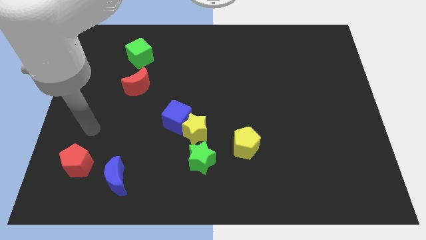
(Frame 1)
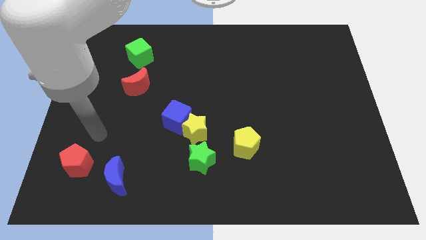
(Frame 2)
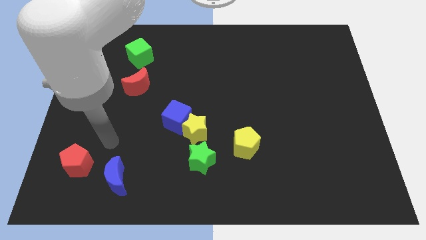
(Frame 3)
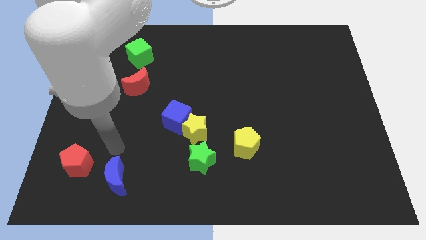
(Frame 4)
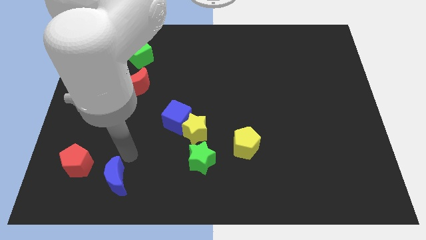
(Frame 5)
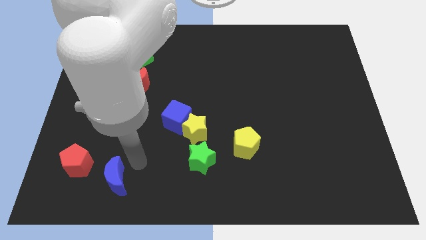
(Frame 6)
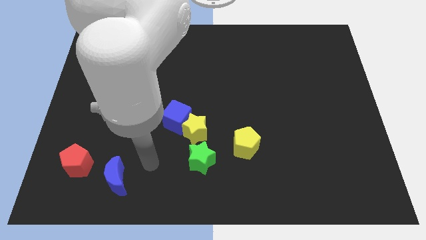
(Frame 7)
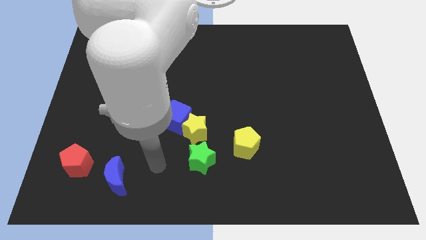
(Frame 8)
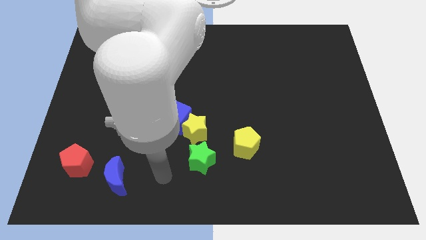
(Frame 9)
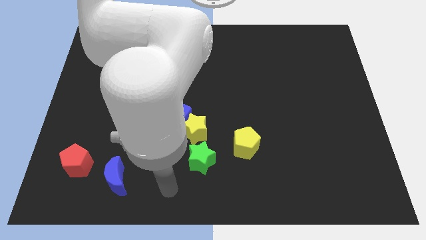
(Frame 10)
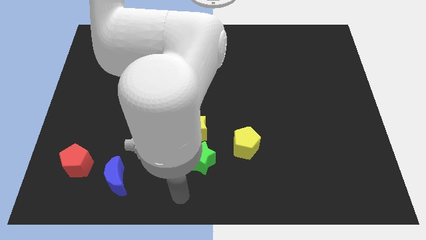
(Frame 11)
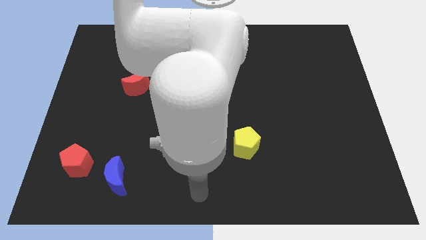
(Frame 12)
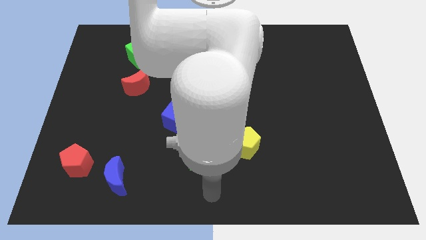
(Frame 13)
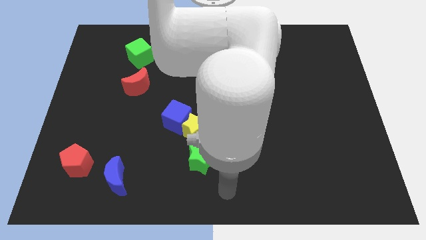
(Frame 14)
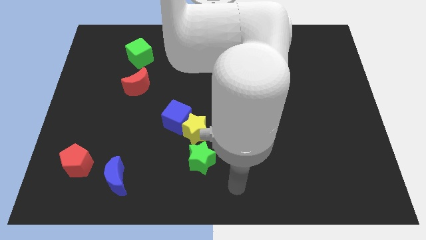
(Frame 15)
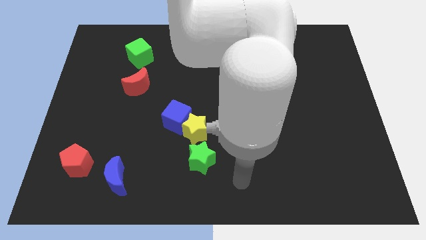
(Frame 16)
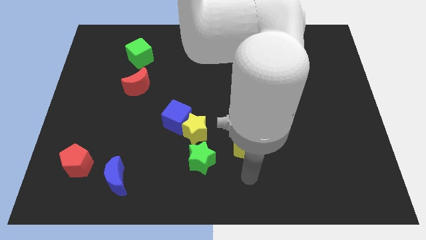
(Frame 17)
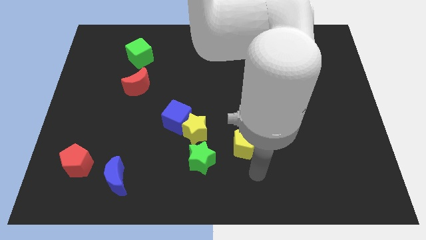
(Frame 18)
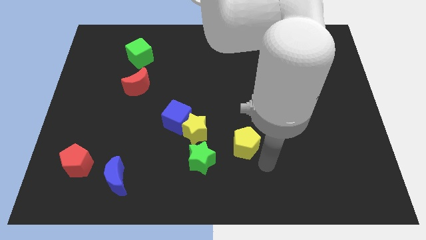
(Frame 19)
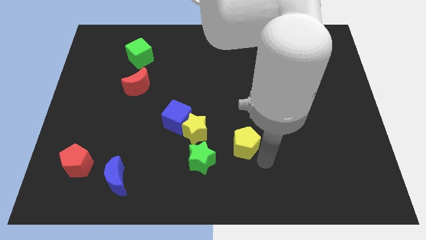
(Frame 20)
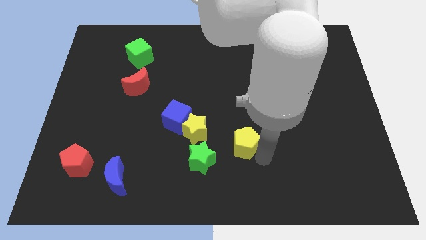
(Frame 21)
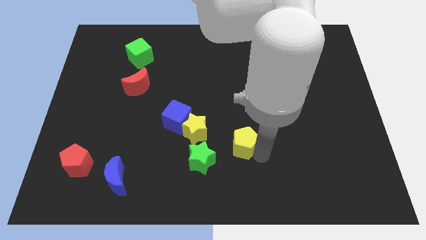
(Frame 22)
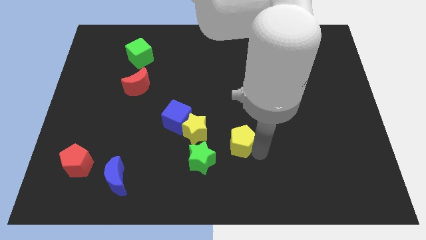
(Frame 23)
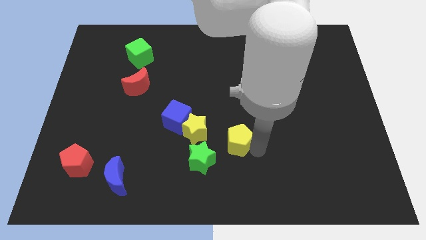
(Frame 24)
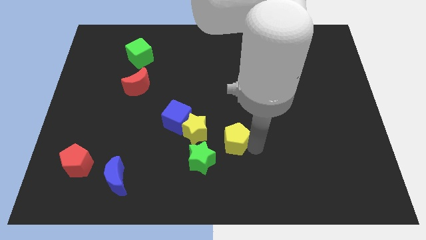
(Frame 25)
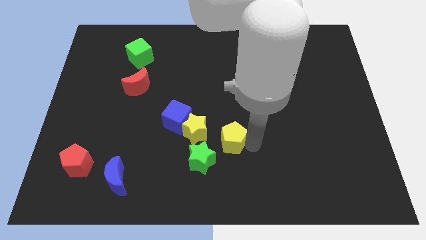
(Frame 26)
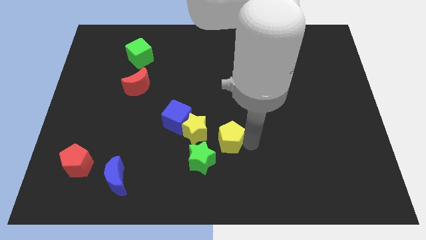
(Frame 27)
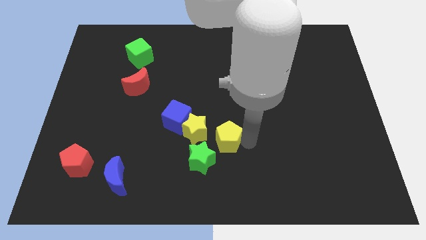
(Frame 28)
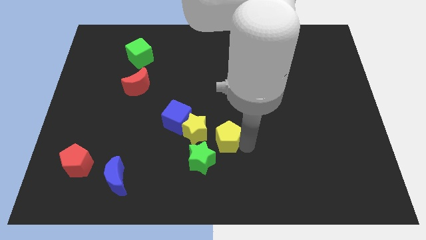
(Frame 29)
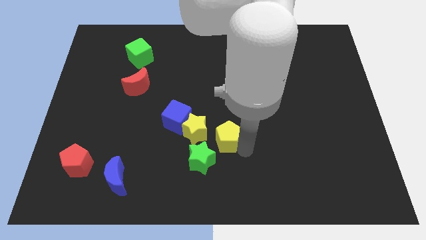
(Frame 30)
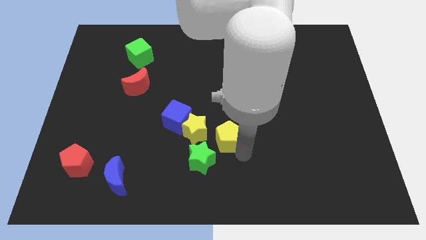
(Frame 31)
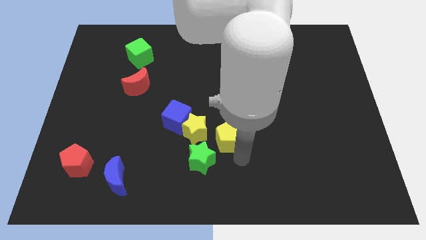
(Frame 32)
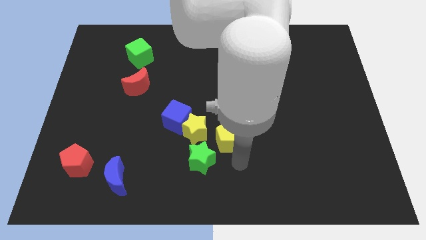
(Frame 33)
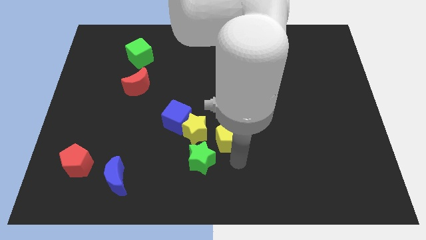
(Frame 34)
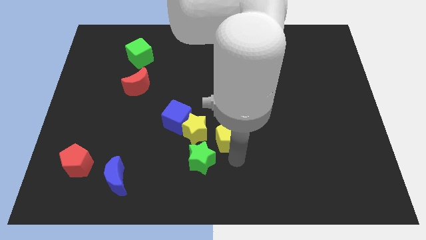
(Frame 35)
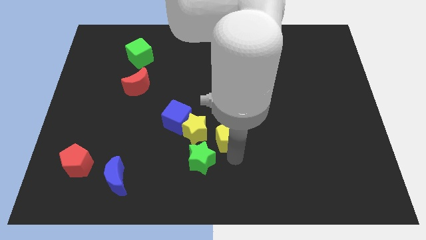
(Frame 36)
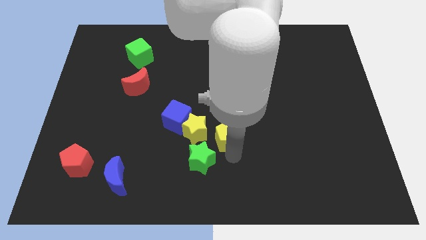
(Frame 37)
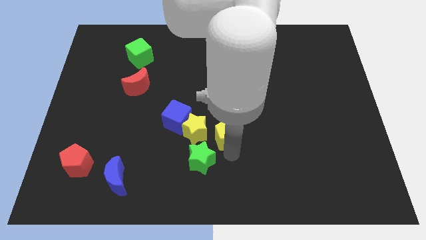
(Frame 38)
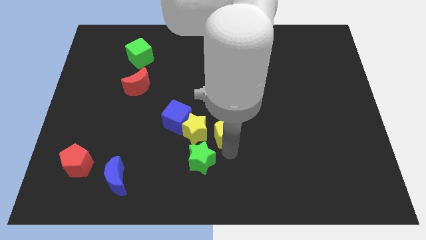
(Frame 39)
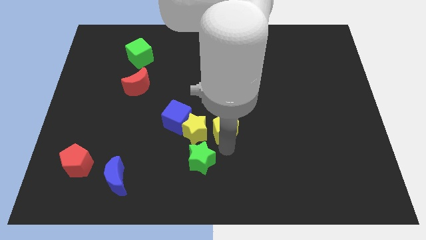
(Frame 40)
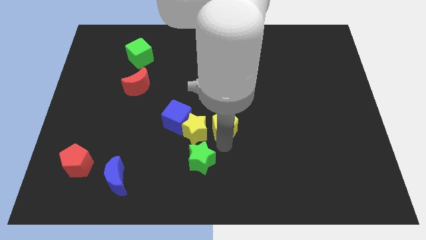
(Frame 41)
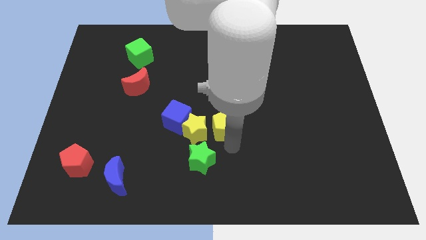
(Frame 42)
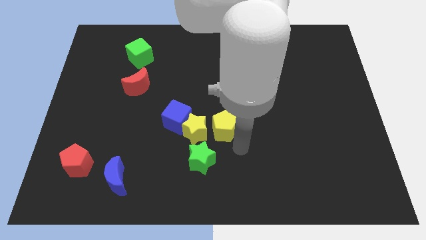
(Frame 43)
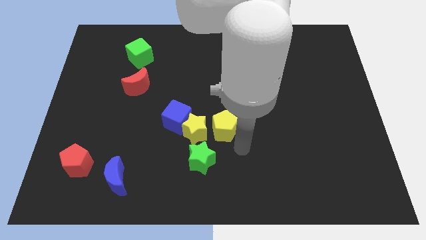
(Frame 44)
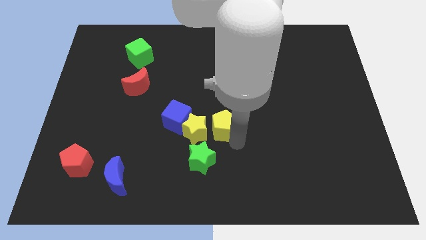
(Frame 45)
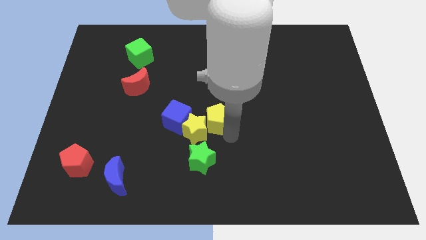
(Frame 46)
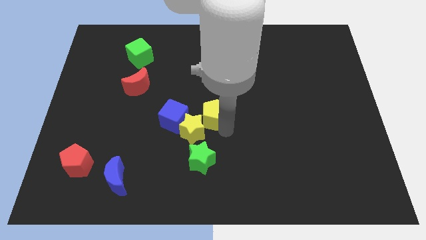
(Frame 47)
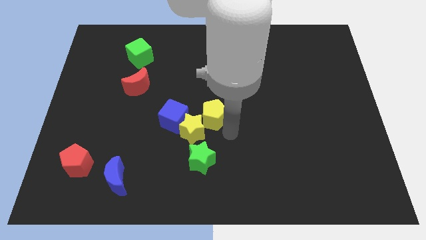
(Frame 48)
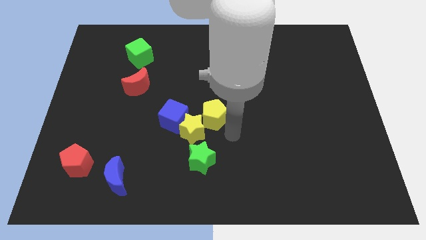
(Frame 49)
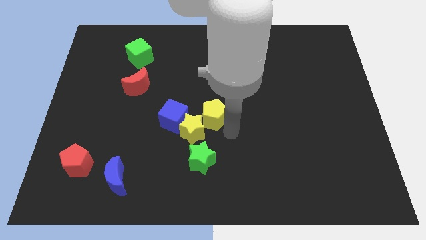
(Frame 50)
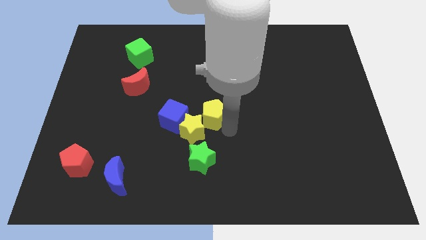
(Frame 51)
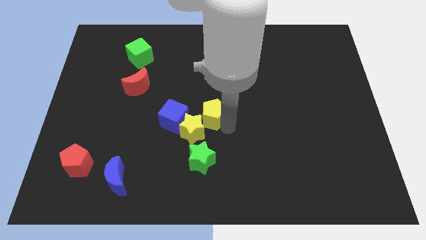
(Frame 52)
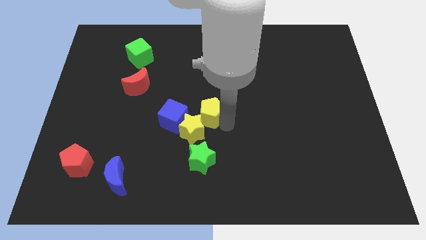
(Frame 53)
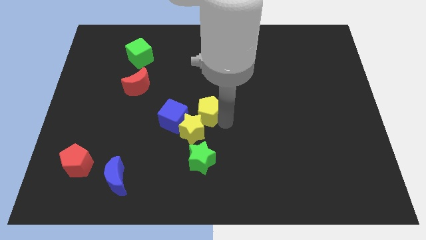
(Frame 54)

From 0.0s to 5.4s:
push the yellow pentagon diagonally up and to the right of the blue cube

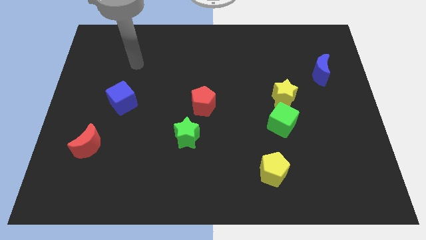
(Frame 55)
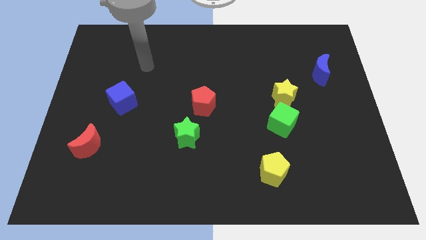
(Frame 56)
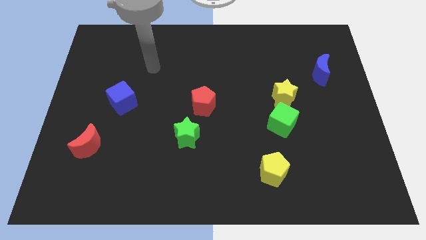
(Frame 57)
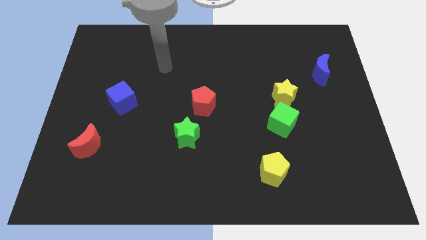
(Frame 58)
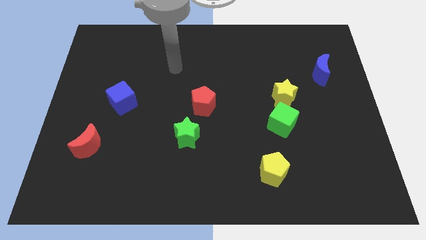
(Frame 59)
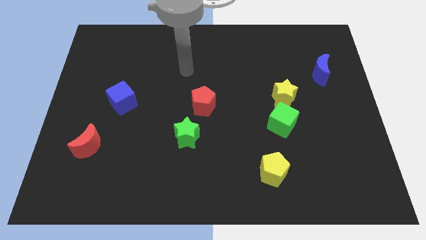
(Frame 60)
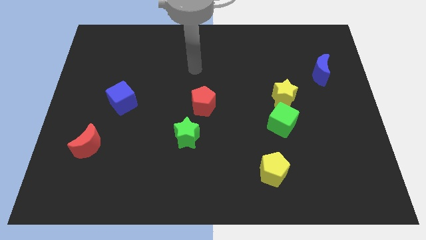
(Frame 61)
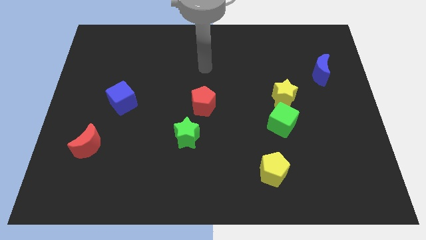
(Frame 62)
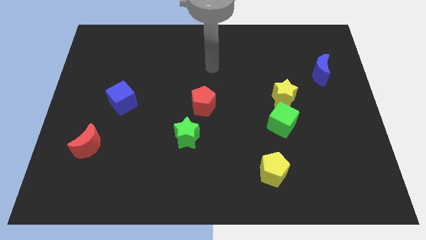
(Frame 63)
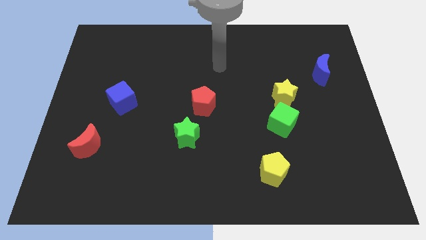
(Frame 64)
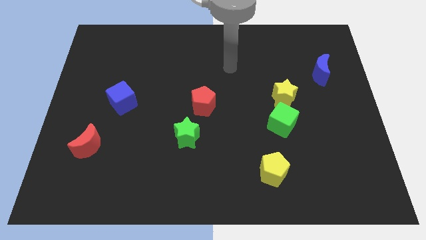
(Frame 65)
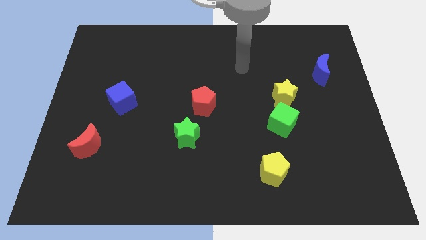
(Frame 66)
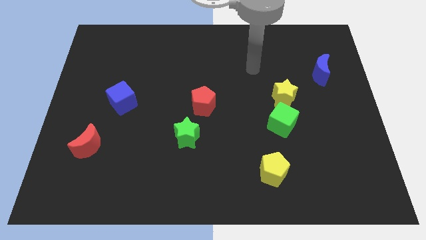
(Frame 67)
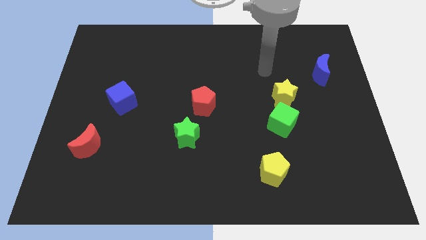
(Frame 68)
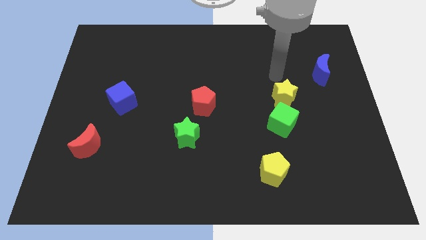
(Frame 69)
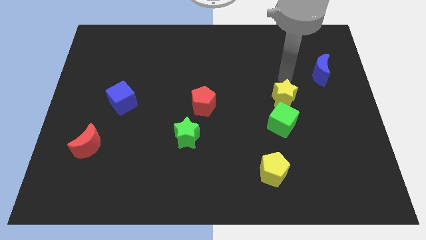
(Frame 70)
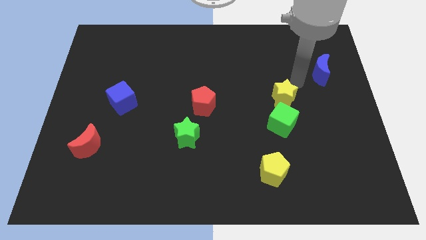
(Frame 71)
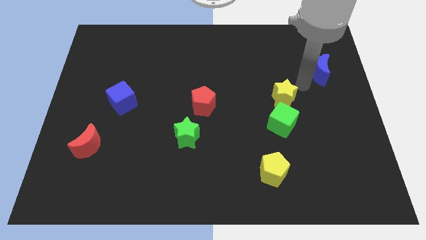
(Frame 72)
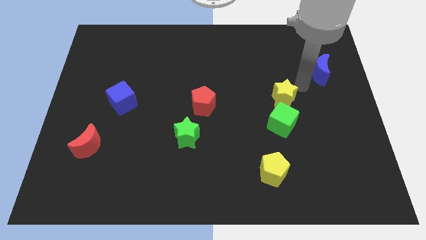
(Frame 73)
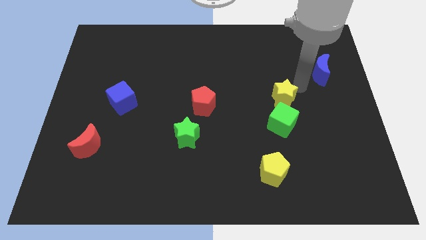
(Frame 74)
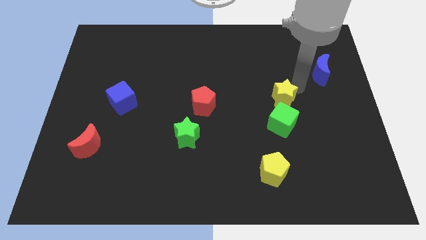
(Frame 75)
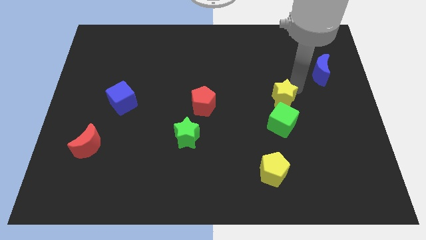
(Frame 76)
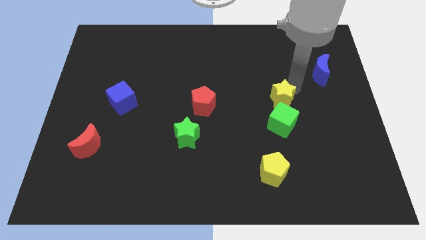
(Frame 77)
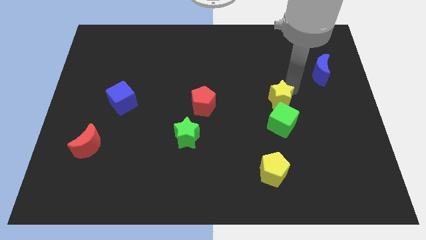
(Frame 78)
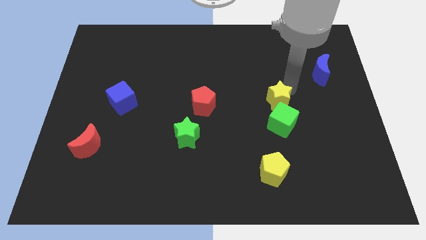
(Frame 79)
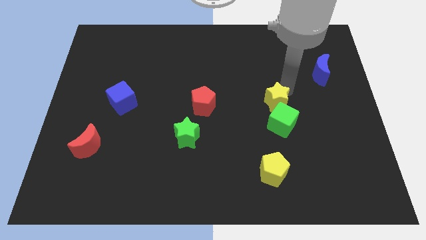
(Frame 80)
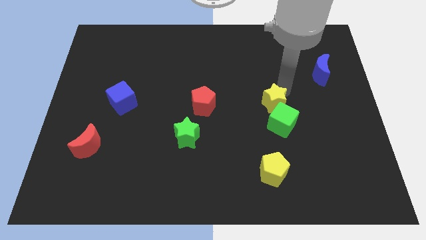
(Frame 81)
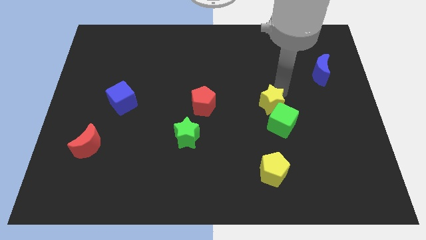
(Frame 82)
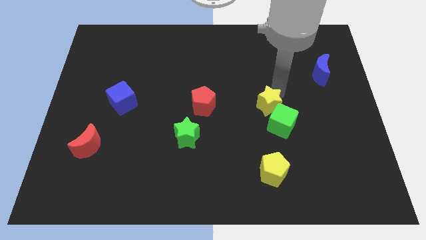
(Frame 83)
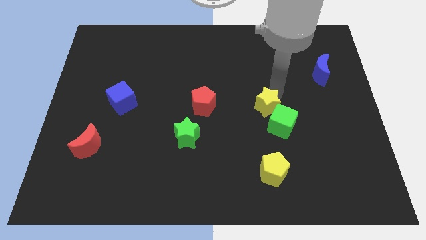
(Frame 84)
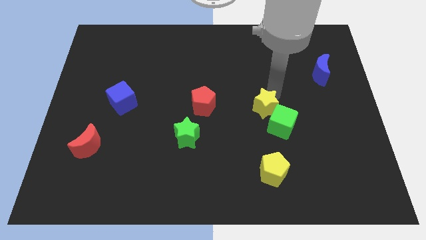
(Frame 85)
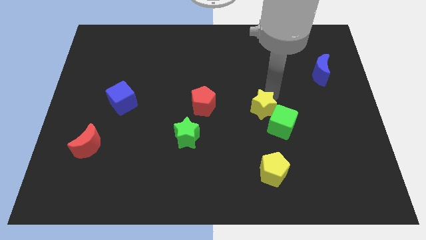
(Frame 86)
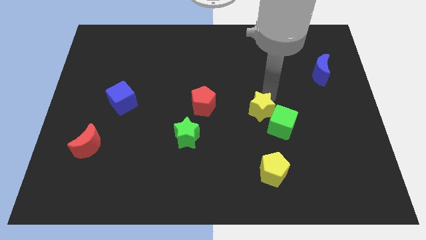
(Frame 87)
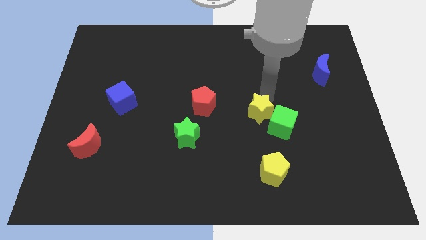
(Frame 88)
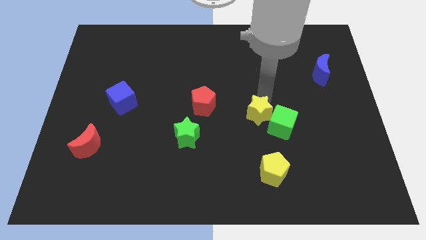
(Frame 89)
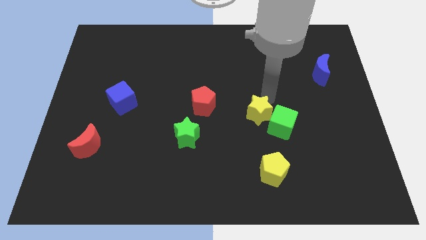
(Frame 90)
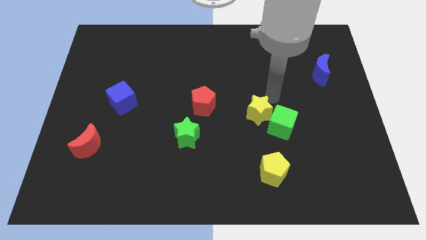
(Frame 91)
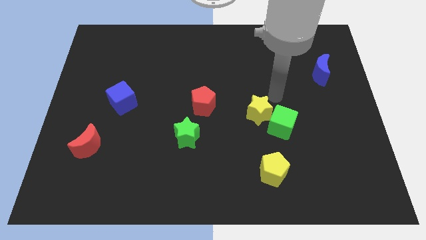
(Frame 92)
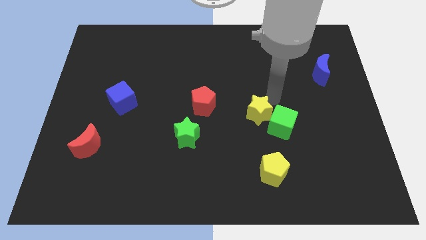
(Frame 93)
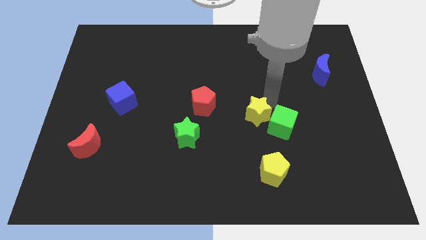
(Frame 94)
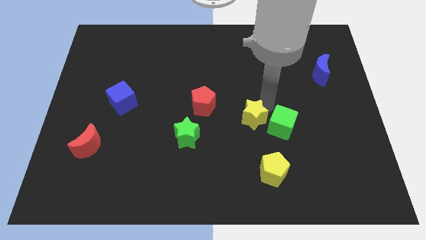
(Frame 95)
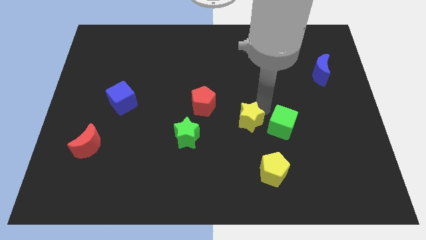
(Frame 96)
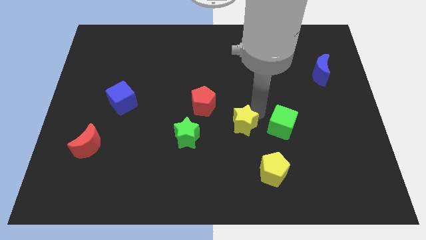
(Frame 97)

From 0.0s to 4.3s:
move the yellow star just right of the green star
